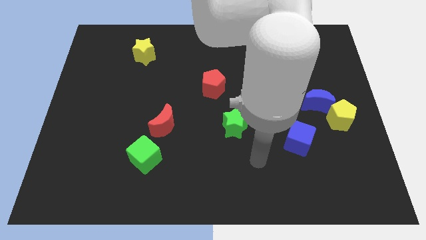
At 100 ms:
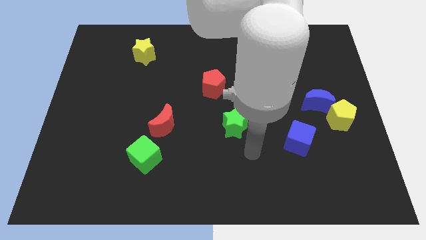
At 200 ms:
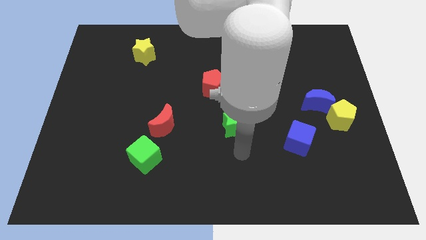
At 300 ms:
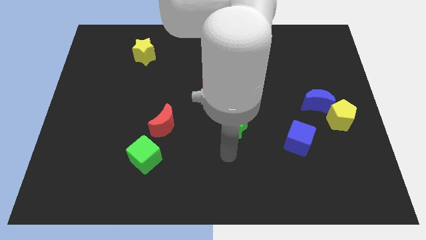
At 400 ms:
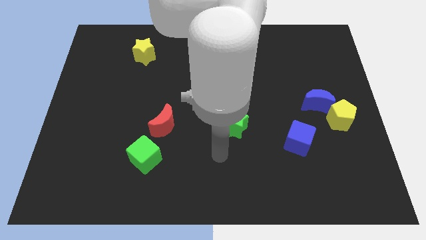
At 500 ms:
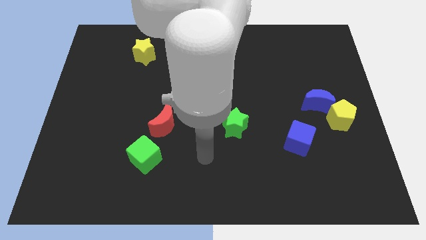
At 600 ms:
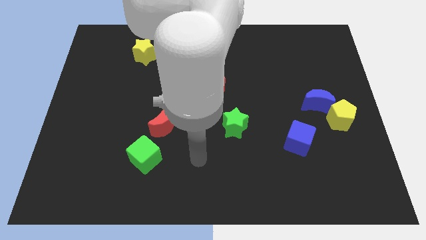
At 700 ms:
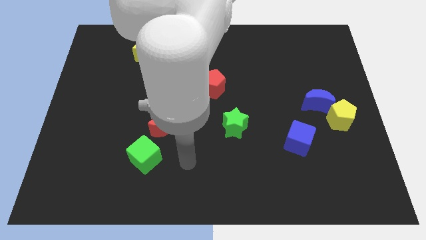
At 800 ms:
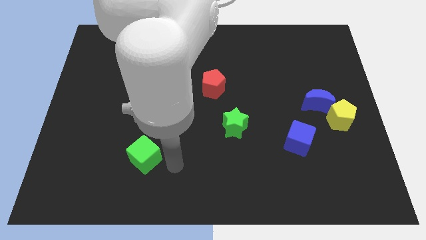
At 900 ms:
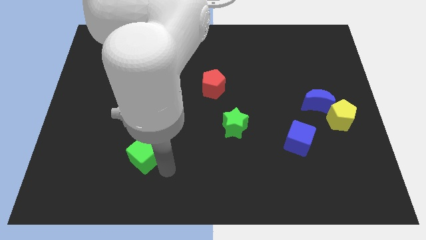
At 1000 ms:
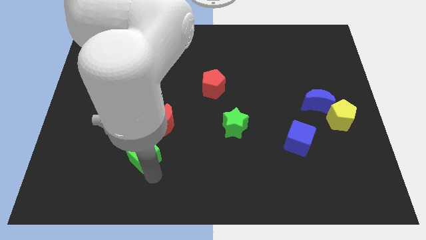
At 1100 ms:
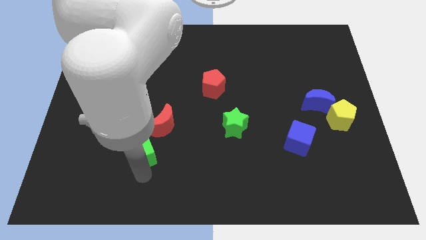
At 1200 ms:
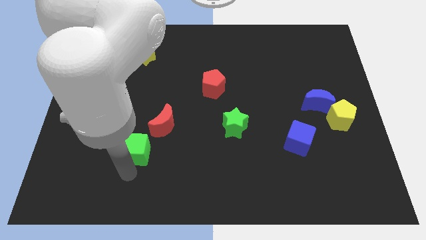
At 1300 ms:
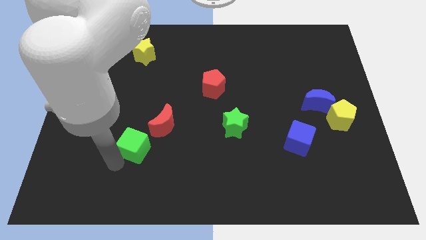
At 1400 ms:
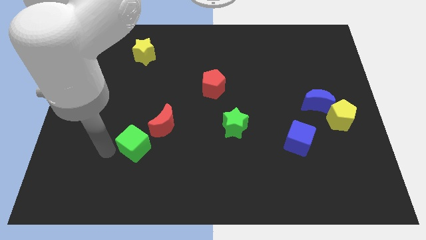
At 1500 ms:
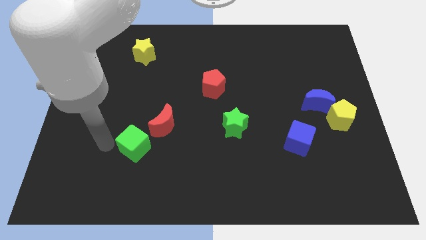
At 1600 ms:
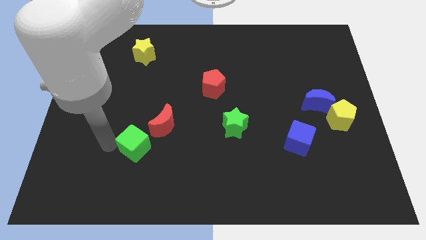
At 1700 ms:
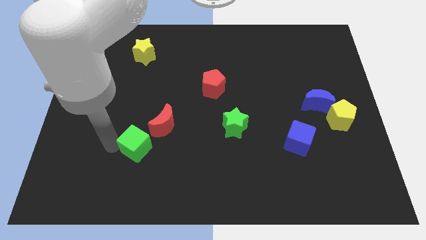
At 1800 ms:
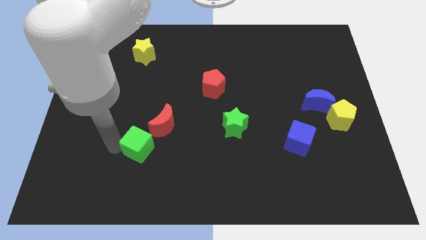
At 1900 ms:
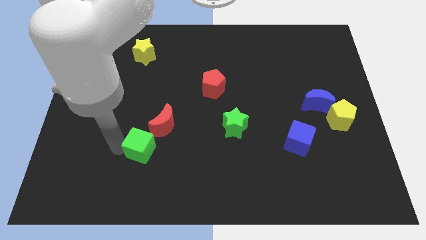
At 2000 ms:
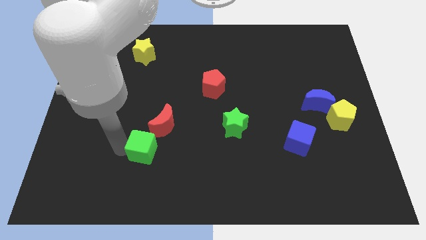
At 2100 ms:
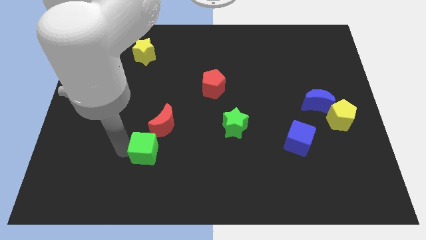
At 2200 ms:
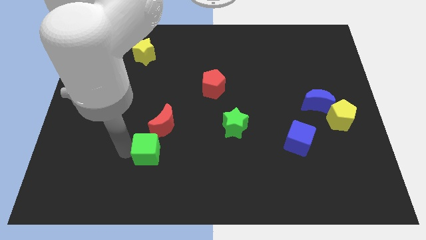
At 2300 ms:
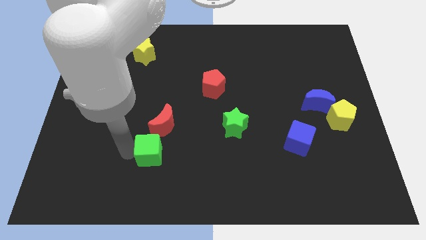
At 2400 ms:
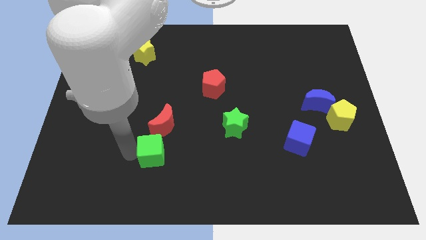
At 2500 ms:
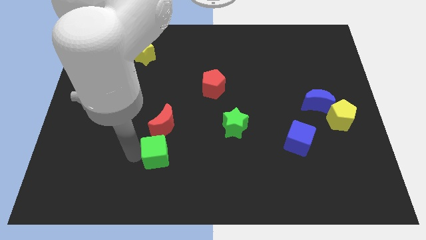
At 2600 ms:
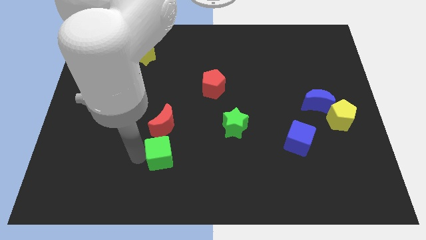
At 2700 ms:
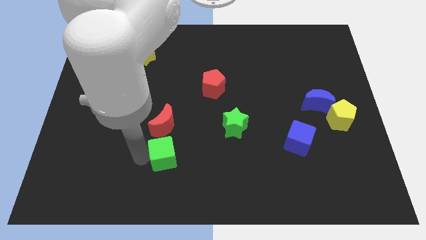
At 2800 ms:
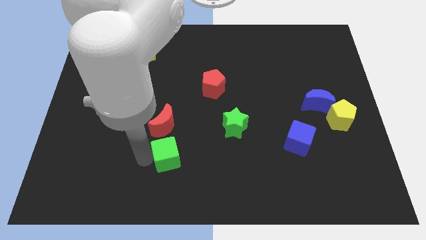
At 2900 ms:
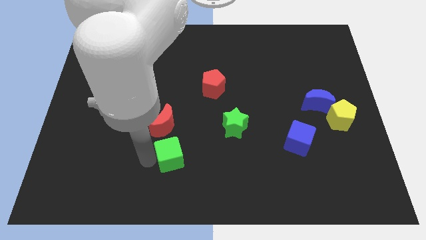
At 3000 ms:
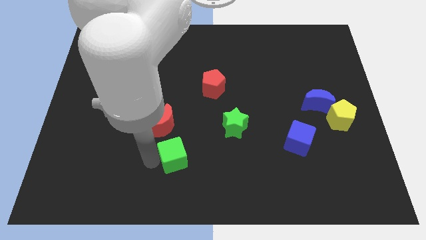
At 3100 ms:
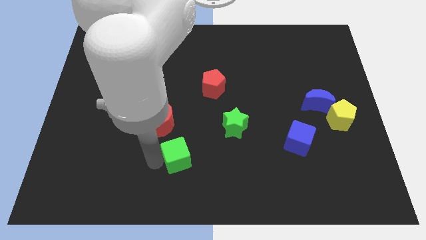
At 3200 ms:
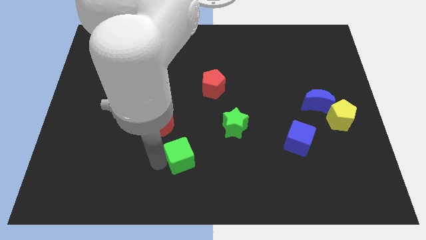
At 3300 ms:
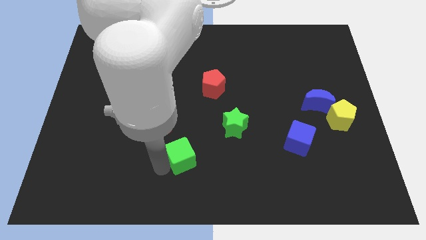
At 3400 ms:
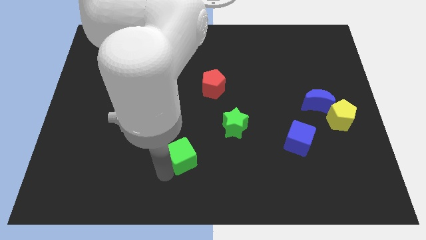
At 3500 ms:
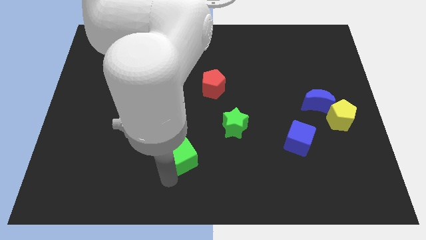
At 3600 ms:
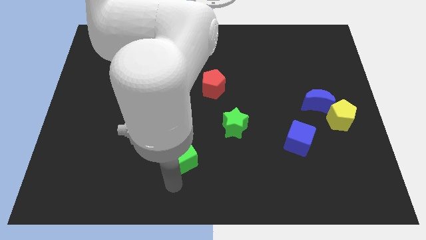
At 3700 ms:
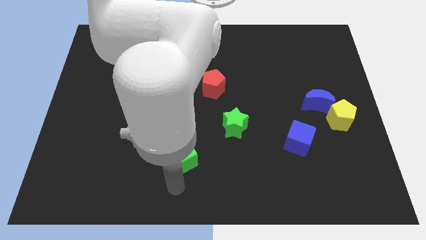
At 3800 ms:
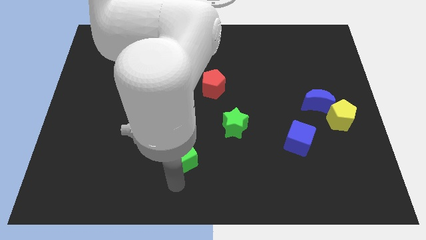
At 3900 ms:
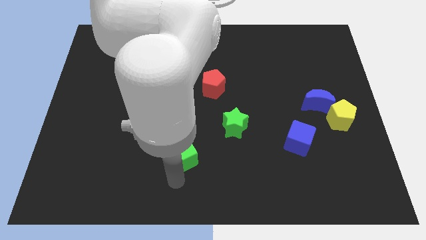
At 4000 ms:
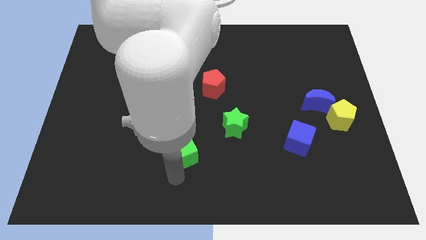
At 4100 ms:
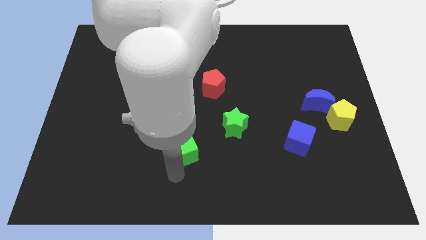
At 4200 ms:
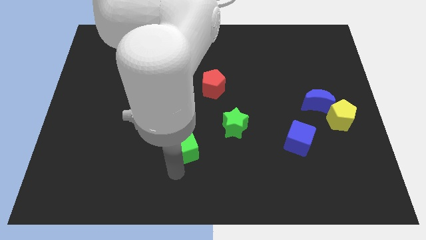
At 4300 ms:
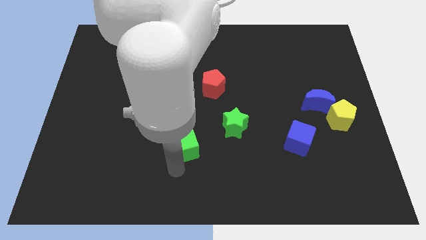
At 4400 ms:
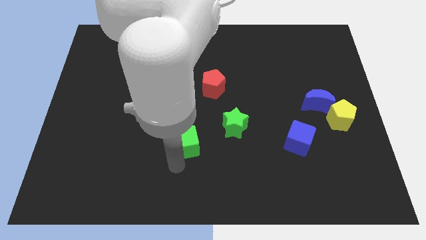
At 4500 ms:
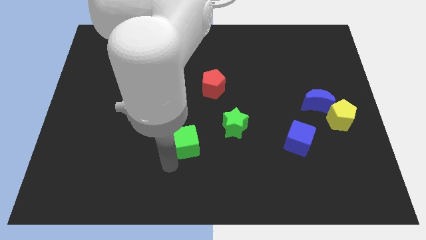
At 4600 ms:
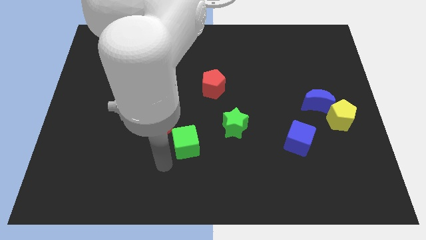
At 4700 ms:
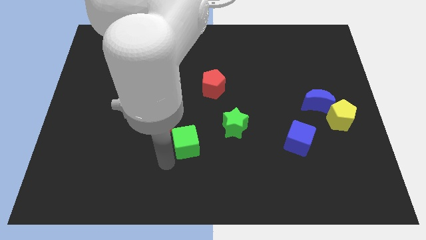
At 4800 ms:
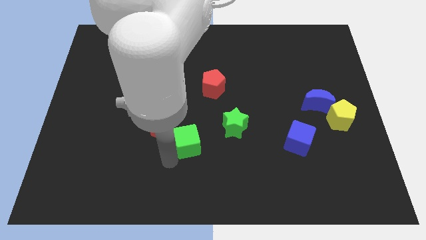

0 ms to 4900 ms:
move the green cube to the right of the red moon

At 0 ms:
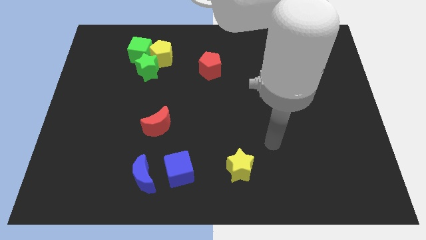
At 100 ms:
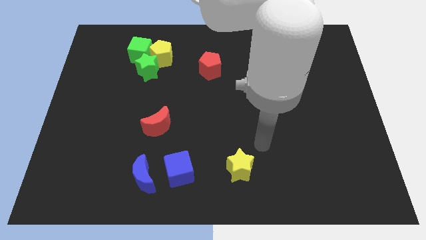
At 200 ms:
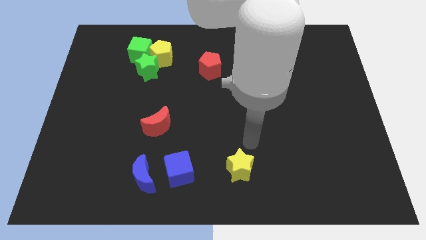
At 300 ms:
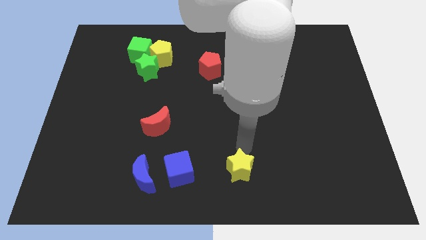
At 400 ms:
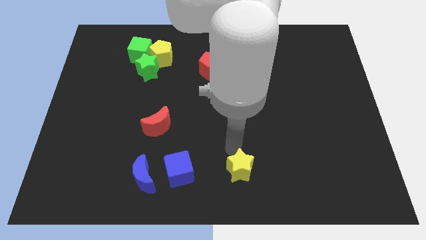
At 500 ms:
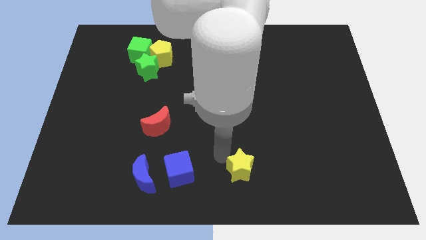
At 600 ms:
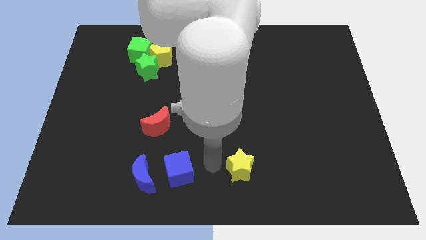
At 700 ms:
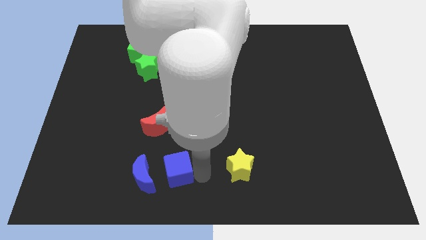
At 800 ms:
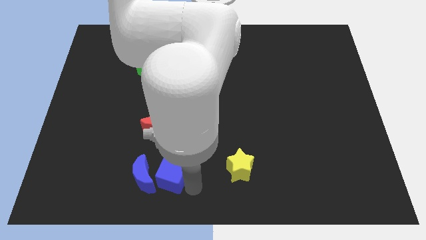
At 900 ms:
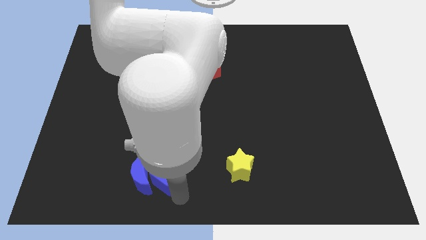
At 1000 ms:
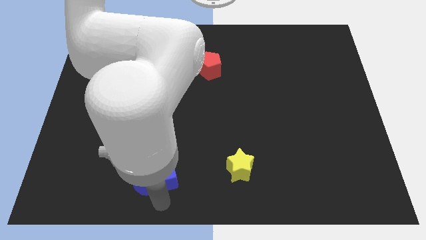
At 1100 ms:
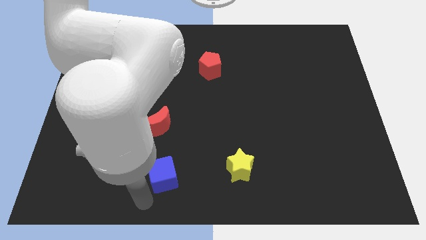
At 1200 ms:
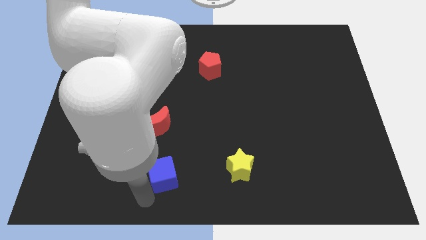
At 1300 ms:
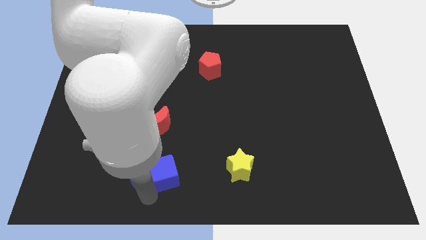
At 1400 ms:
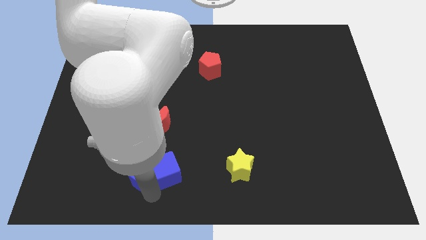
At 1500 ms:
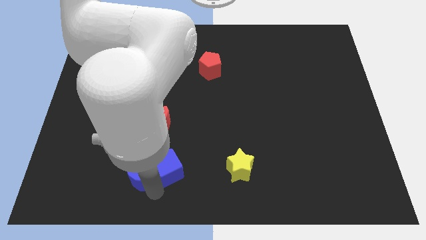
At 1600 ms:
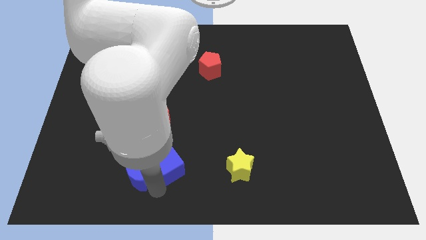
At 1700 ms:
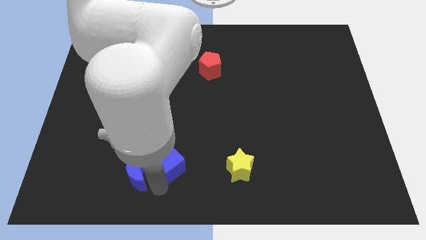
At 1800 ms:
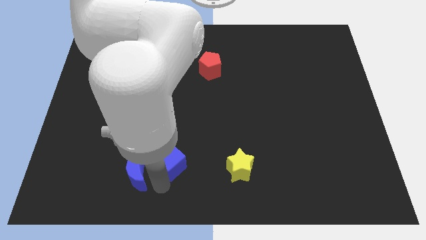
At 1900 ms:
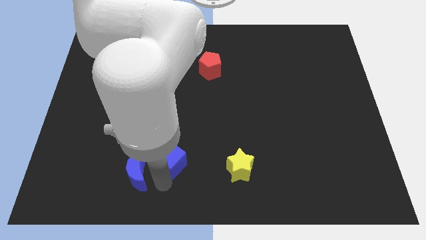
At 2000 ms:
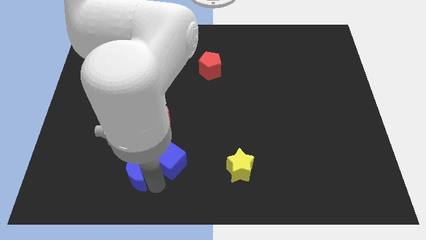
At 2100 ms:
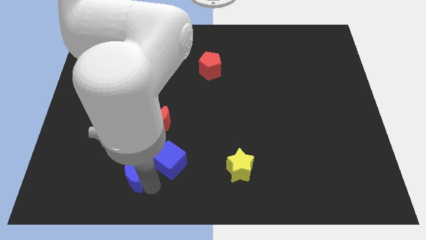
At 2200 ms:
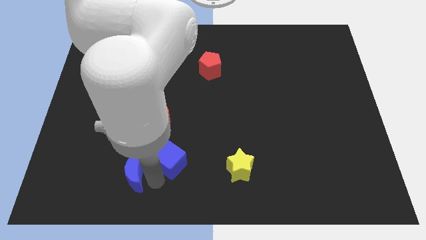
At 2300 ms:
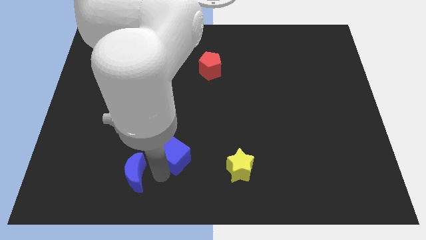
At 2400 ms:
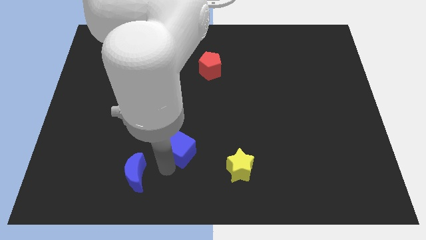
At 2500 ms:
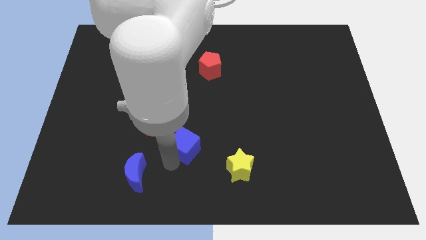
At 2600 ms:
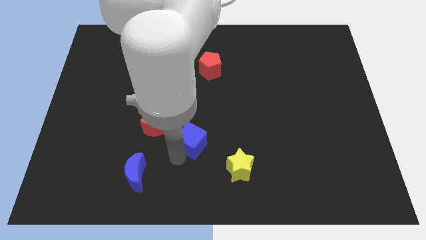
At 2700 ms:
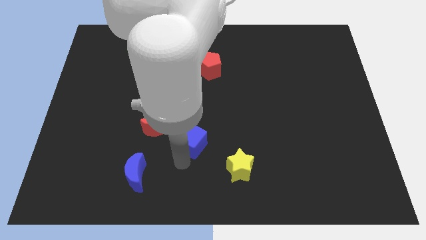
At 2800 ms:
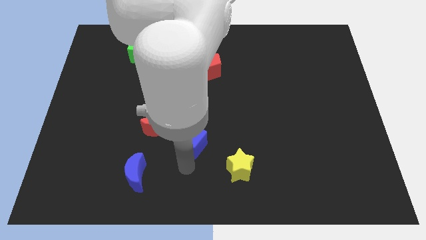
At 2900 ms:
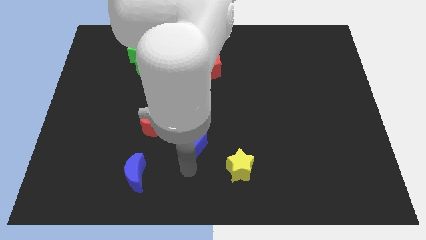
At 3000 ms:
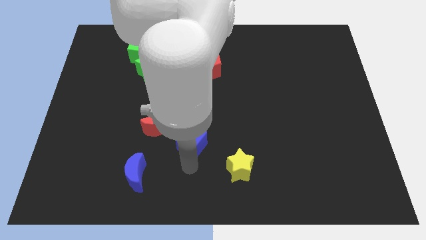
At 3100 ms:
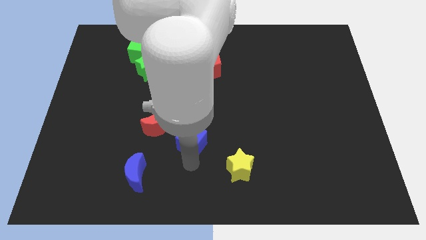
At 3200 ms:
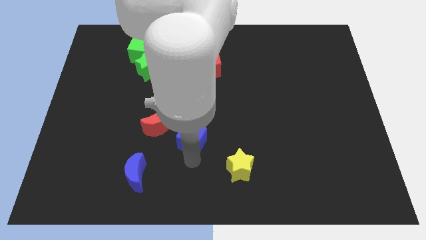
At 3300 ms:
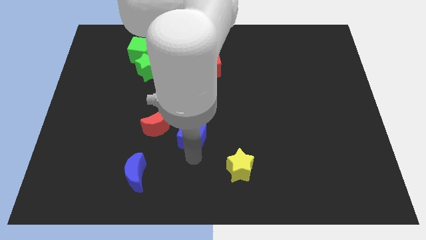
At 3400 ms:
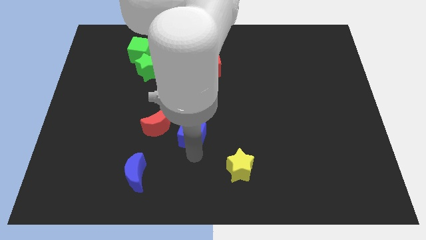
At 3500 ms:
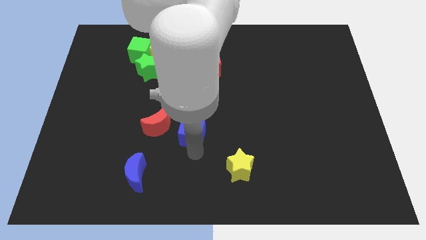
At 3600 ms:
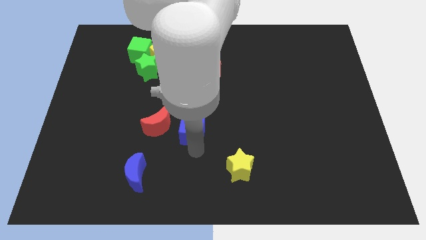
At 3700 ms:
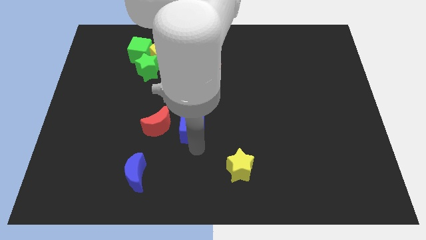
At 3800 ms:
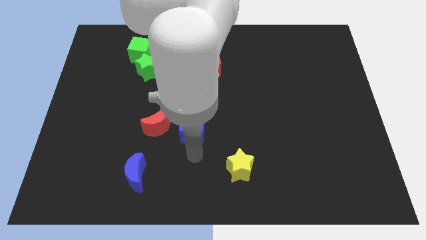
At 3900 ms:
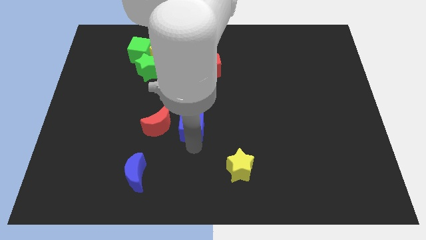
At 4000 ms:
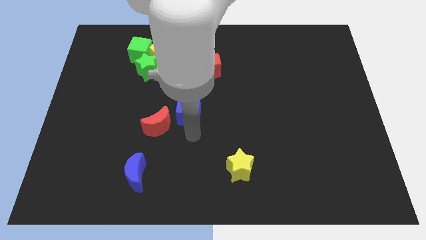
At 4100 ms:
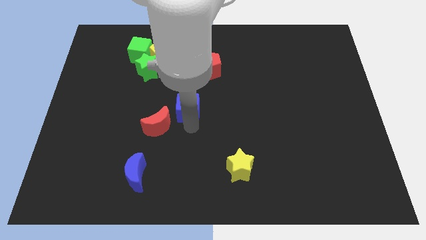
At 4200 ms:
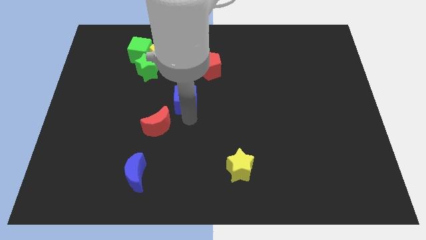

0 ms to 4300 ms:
push the blue cube diagonally down and to the left of the red pentagon
